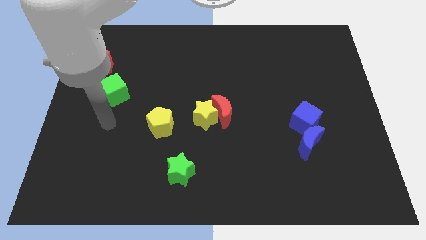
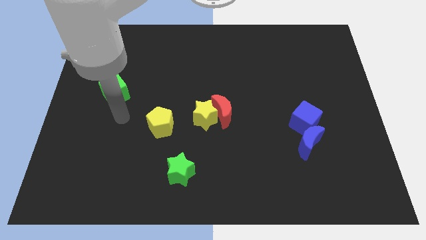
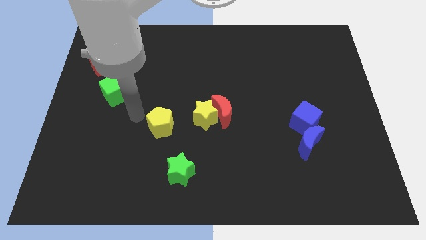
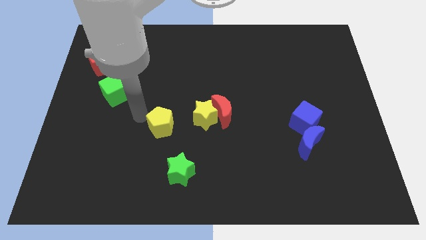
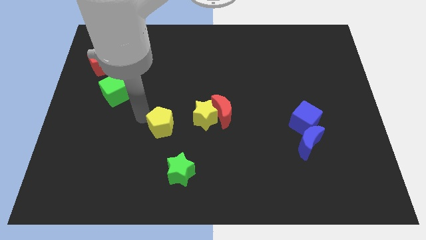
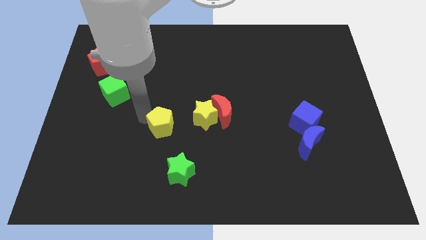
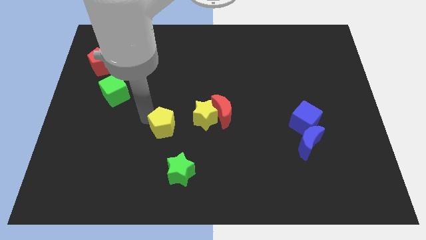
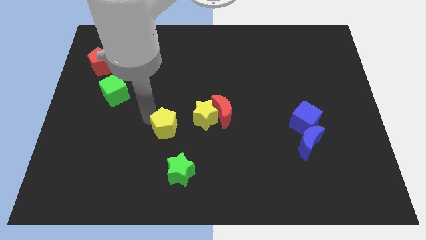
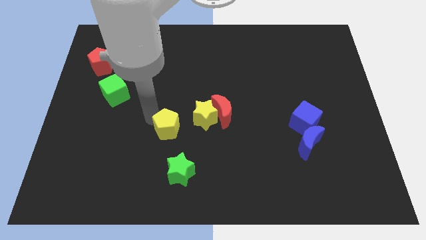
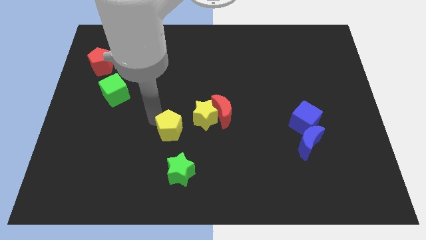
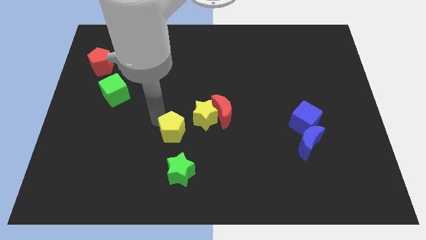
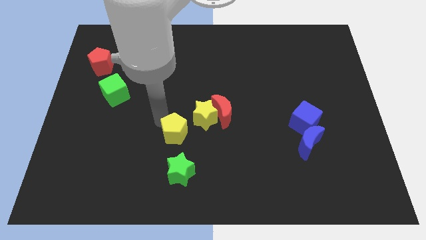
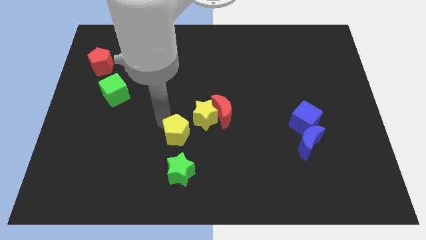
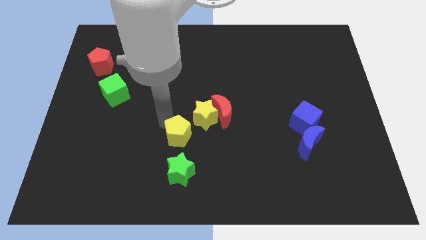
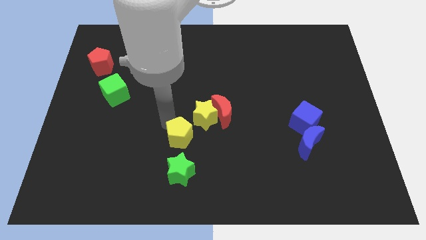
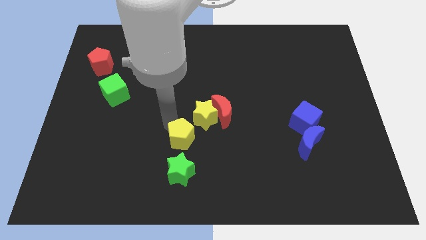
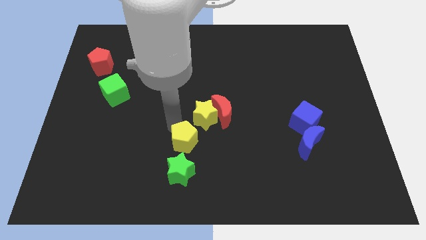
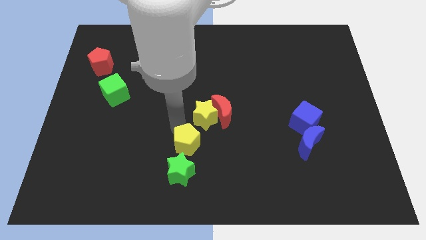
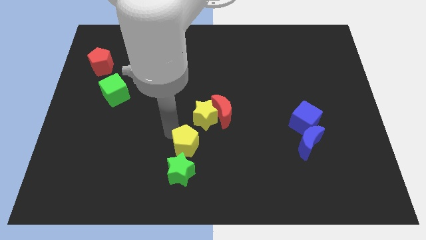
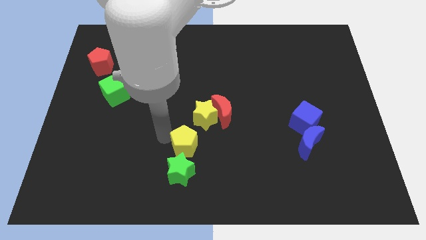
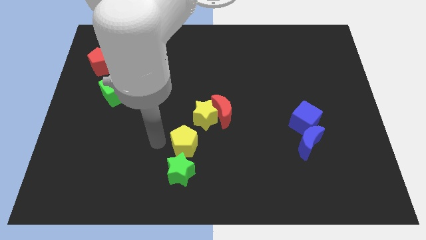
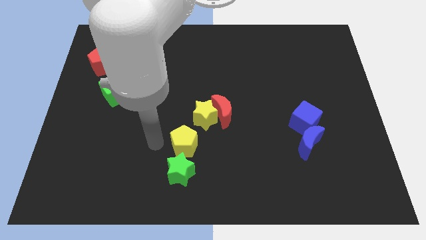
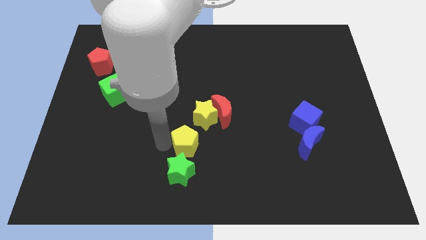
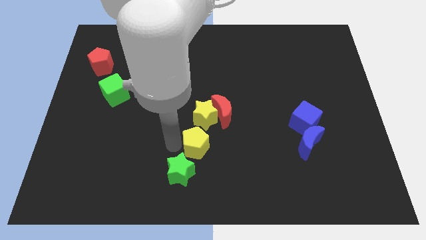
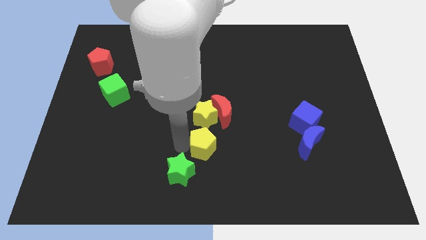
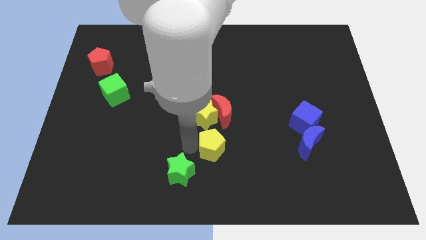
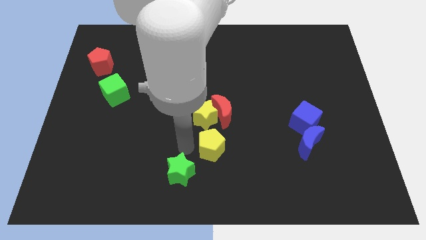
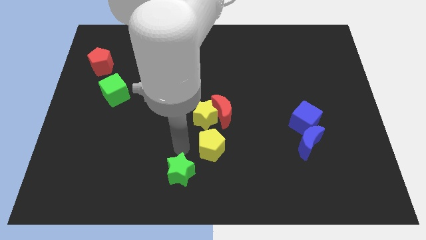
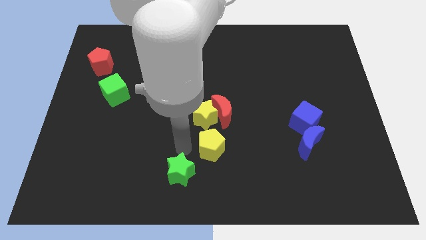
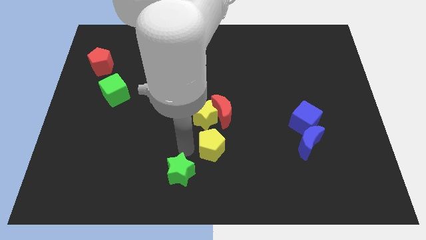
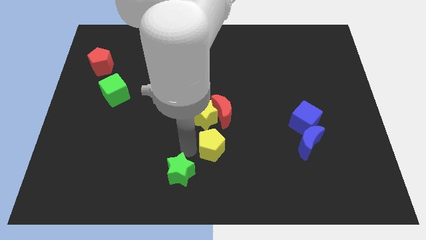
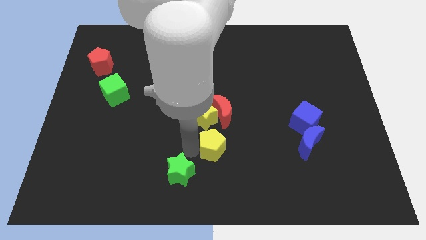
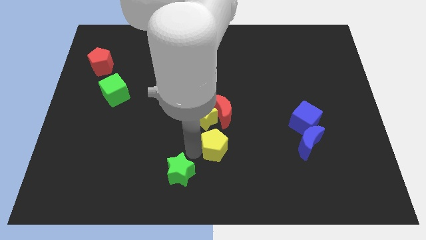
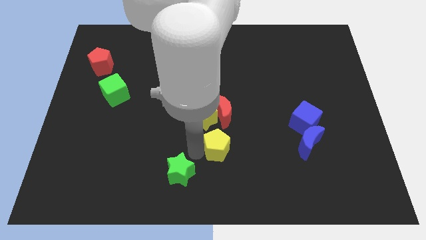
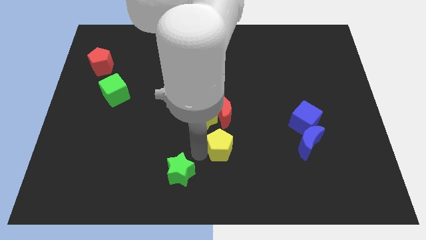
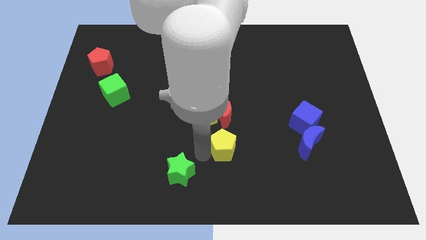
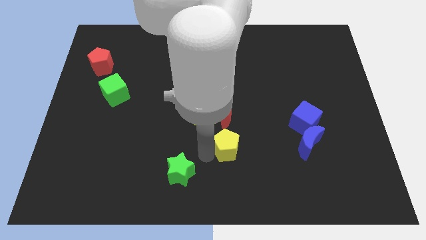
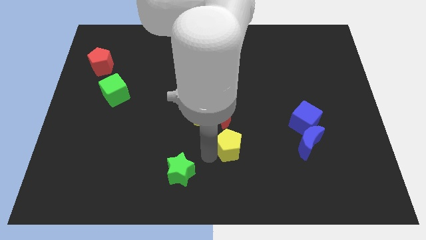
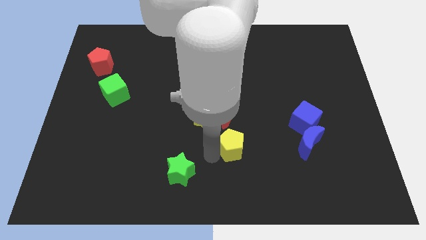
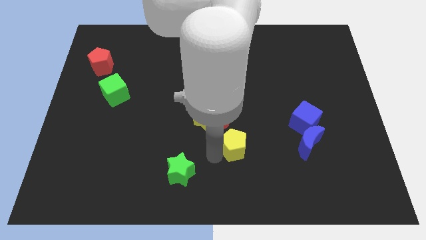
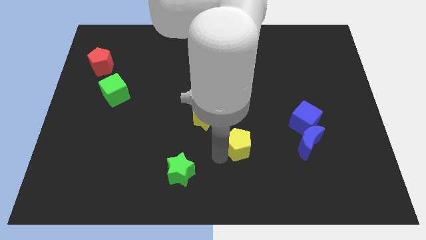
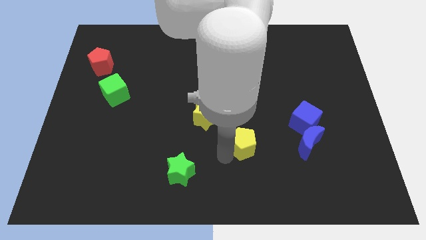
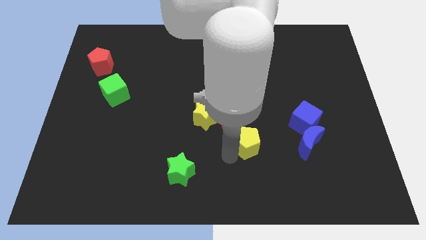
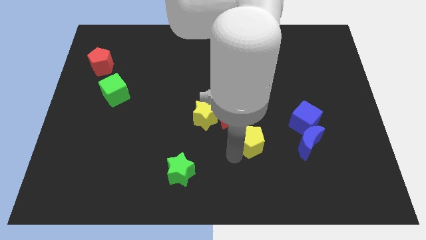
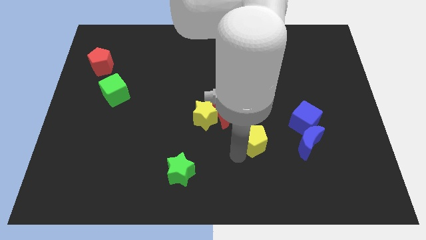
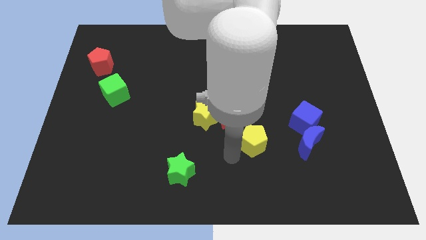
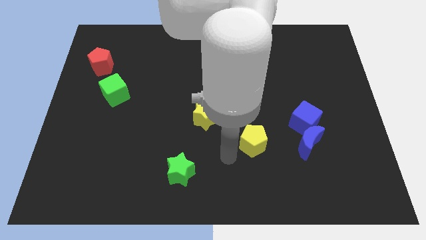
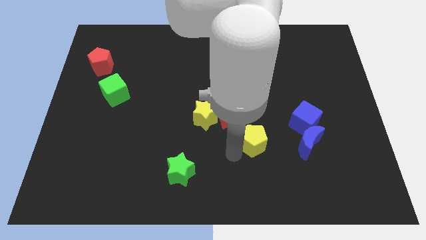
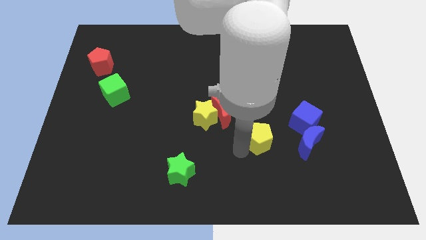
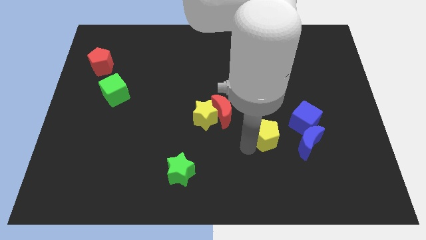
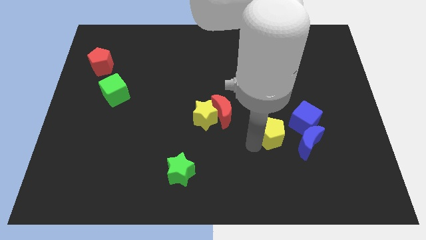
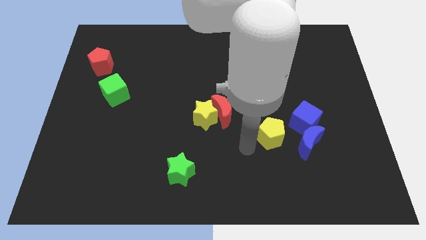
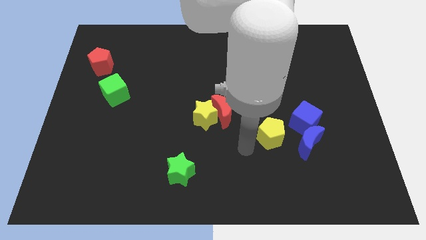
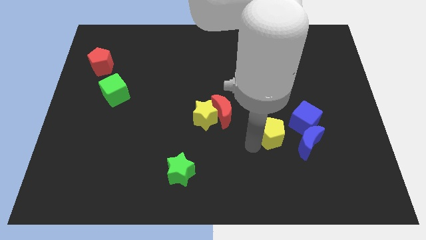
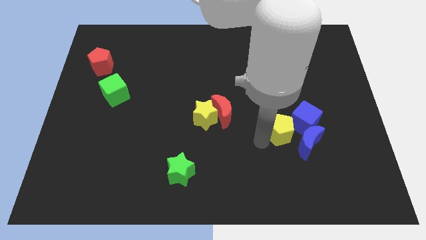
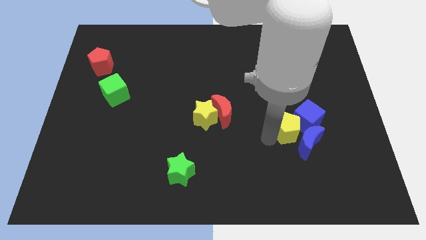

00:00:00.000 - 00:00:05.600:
slide the yellow pentagon close to the blue cube

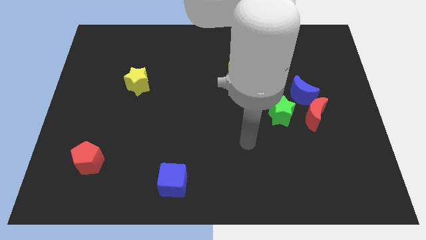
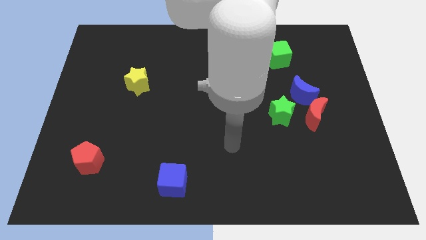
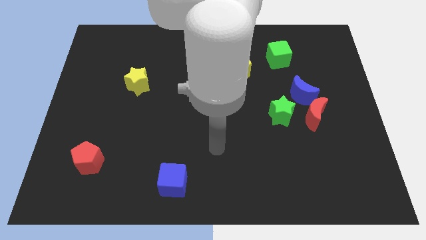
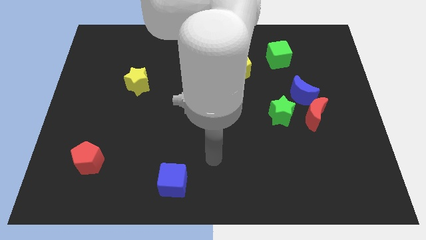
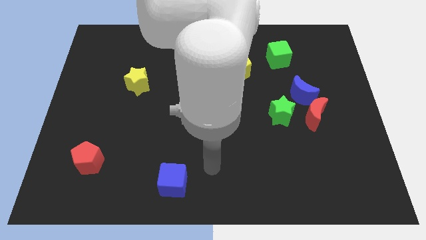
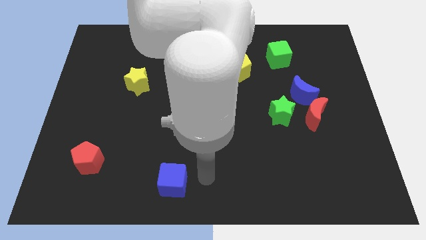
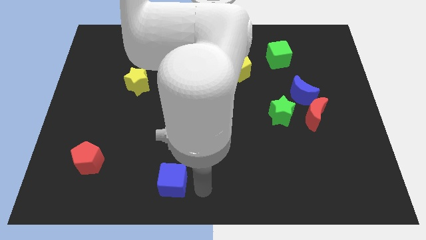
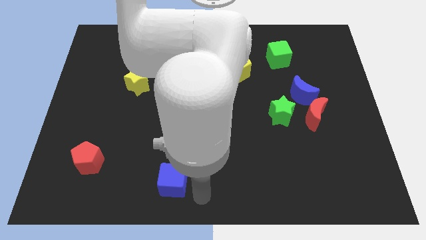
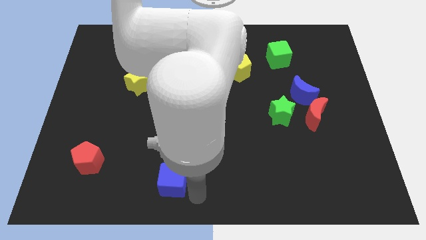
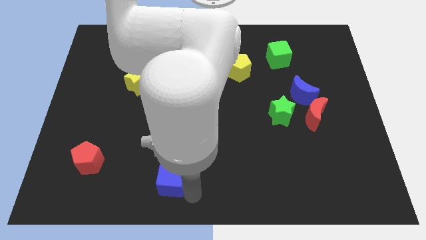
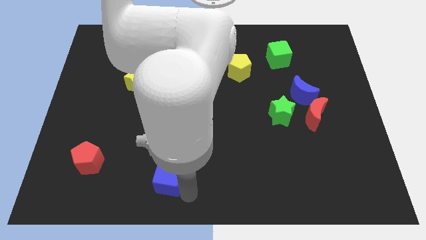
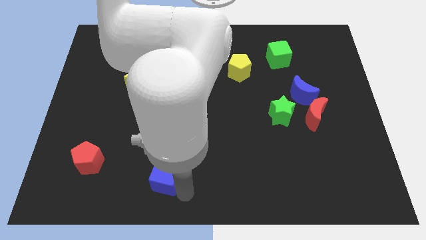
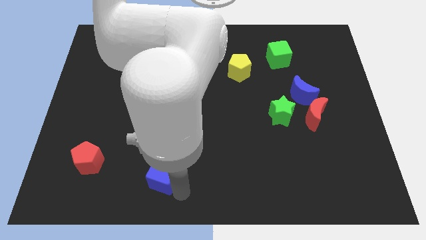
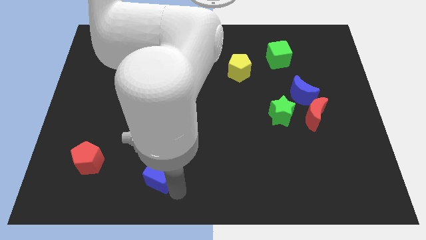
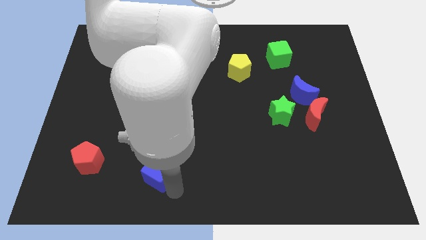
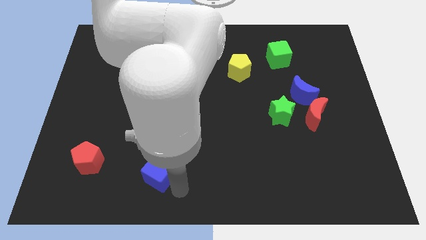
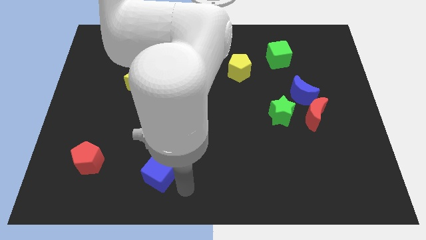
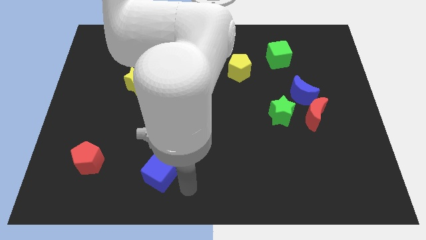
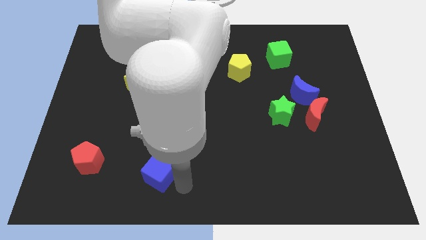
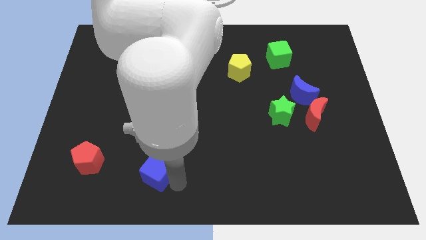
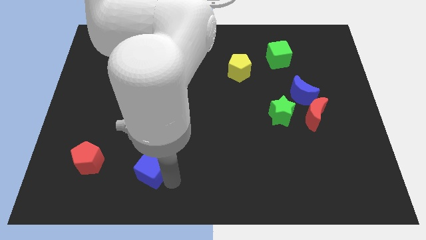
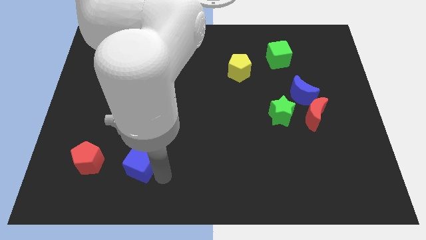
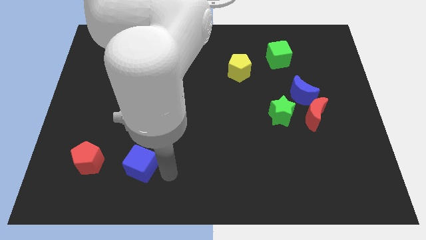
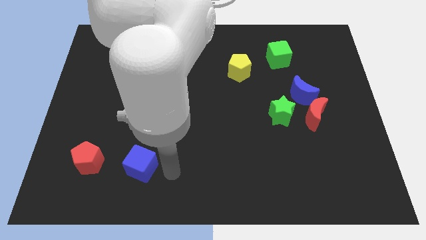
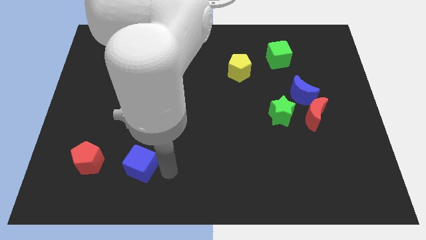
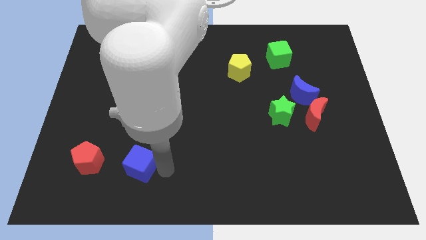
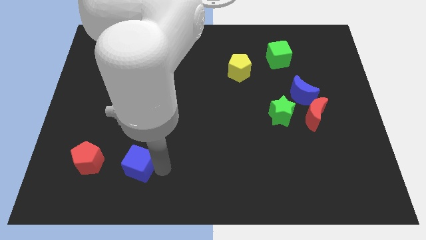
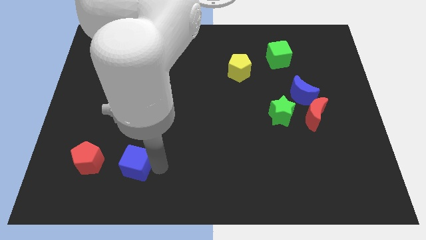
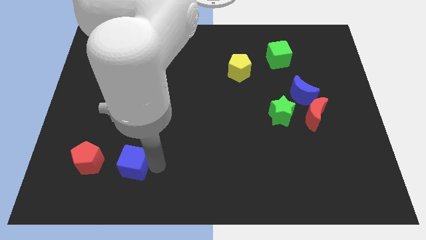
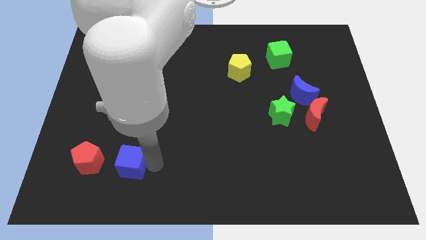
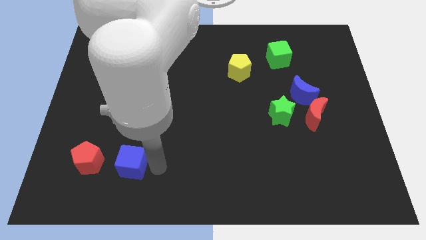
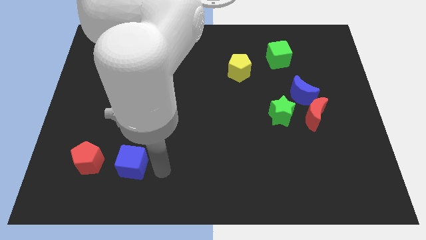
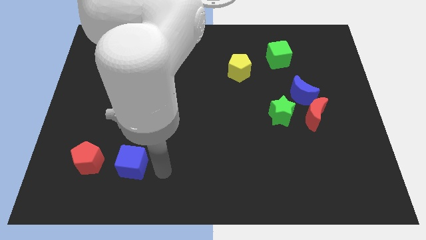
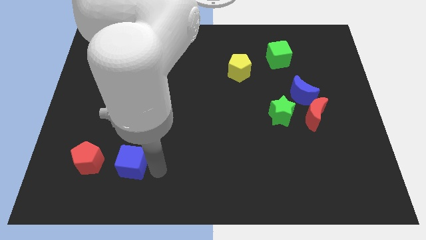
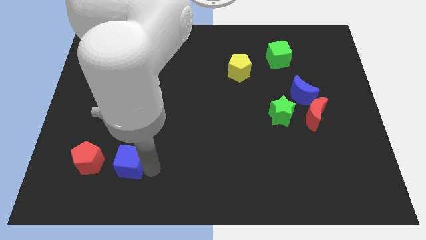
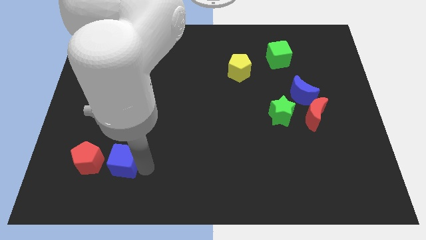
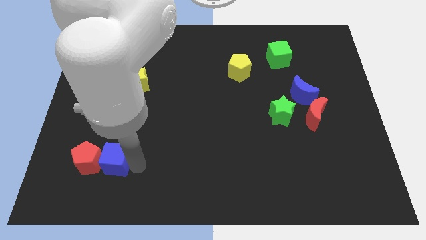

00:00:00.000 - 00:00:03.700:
push the blue cube next to the red pentagon
